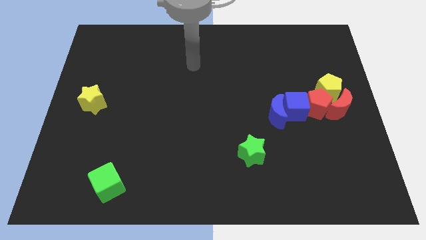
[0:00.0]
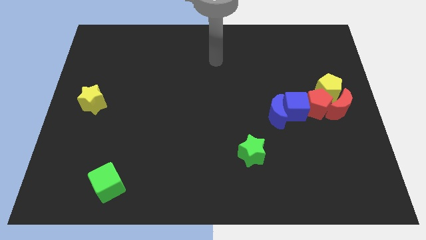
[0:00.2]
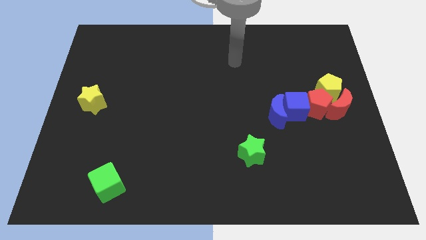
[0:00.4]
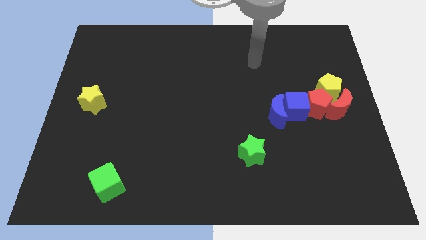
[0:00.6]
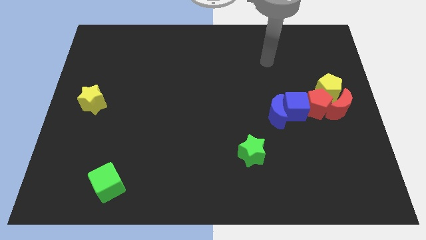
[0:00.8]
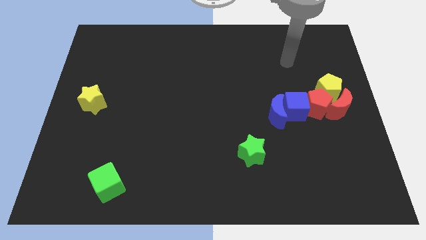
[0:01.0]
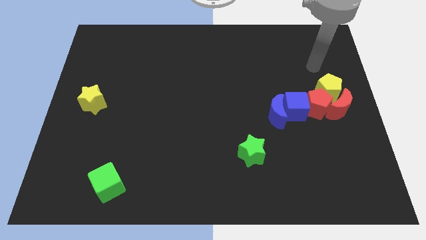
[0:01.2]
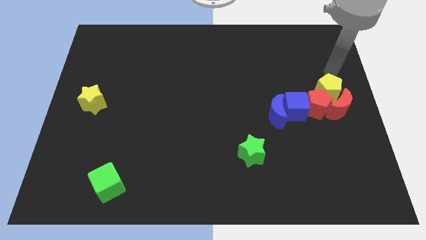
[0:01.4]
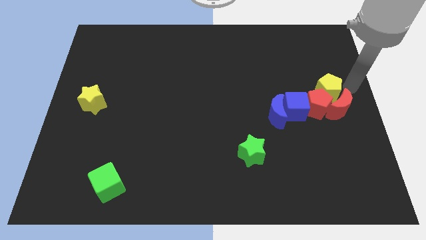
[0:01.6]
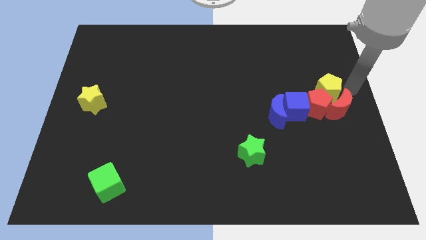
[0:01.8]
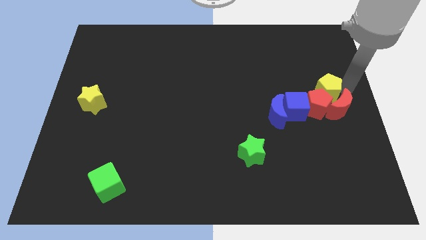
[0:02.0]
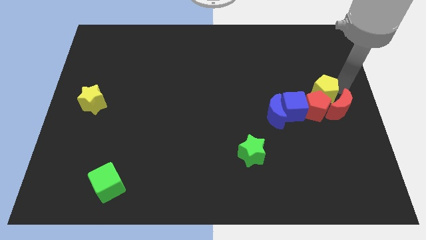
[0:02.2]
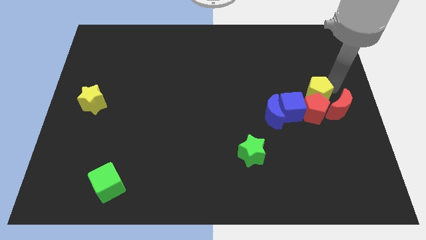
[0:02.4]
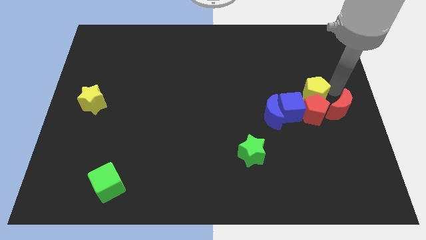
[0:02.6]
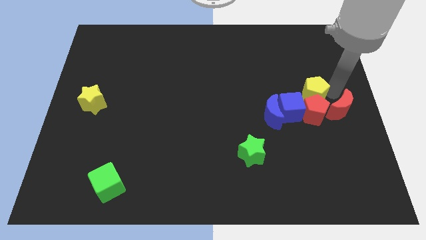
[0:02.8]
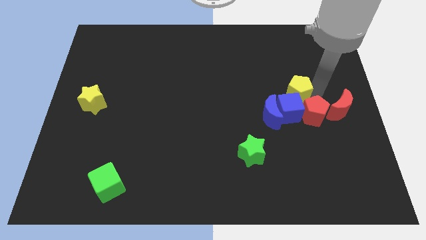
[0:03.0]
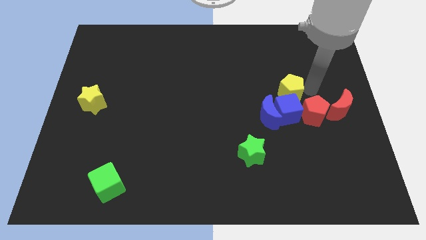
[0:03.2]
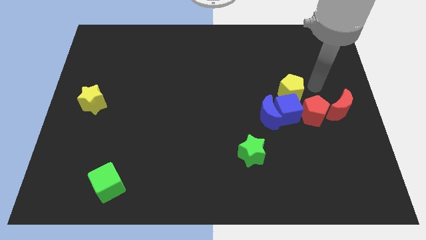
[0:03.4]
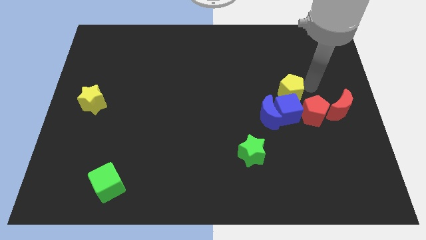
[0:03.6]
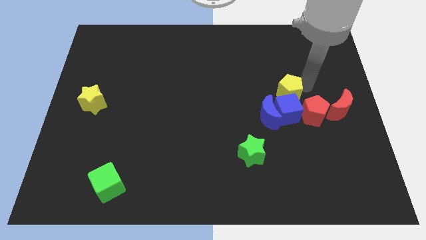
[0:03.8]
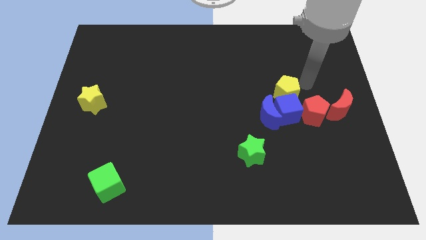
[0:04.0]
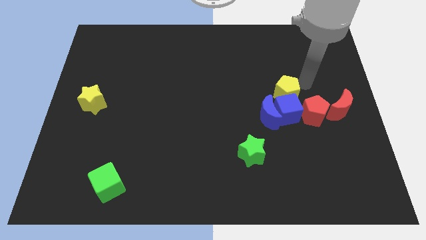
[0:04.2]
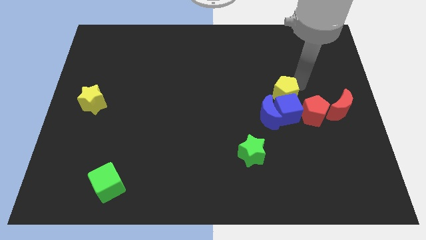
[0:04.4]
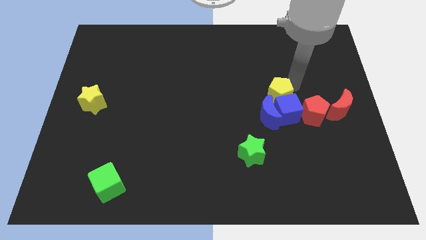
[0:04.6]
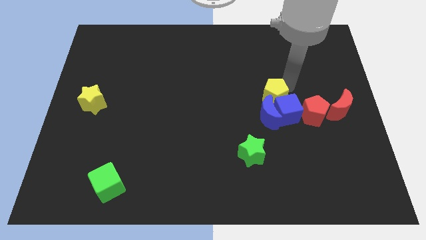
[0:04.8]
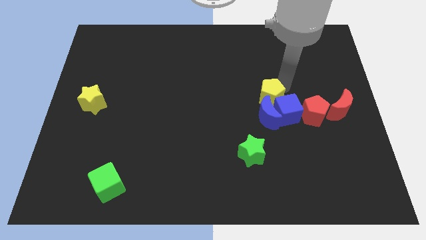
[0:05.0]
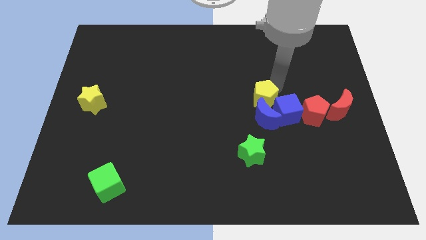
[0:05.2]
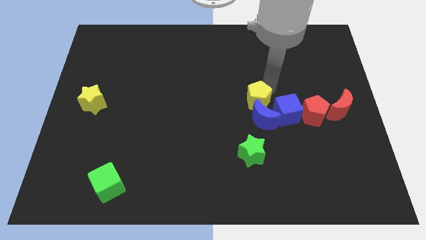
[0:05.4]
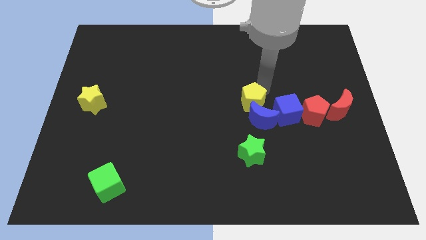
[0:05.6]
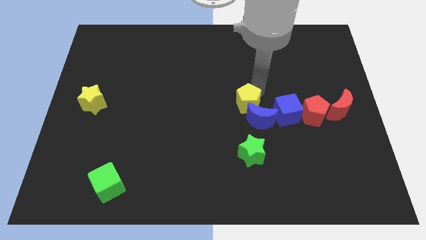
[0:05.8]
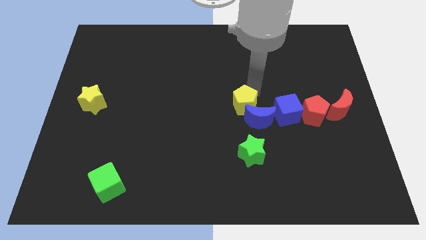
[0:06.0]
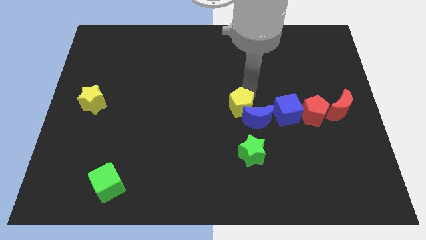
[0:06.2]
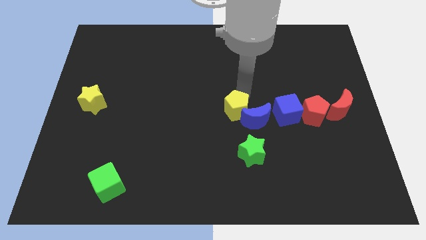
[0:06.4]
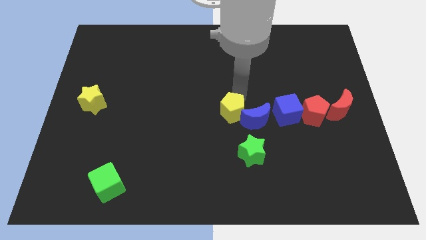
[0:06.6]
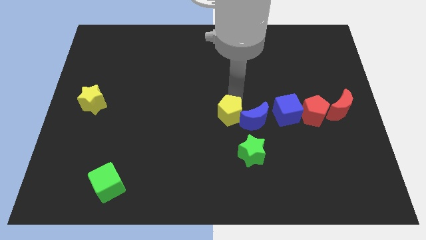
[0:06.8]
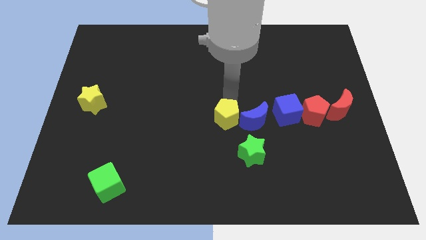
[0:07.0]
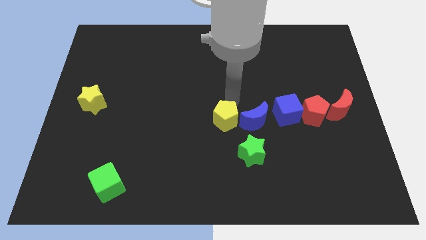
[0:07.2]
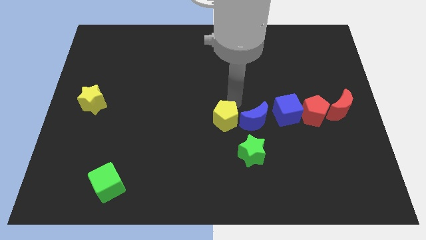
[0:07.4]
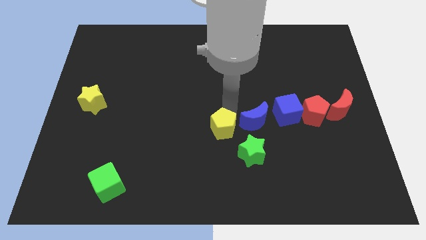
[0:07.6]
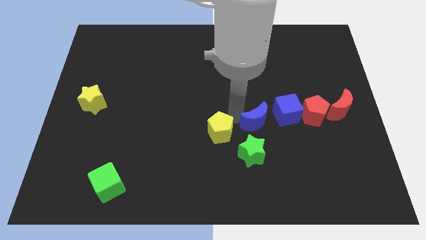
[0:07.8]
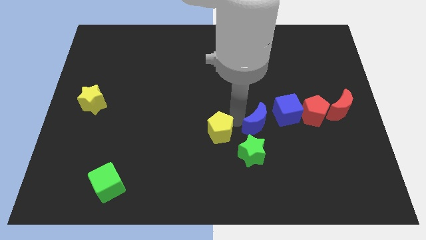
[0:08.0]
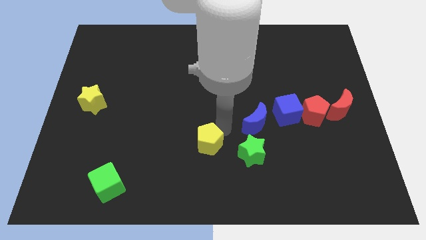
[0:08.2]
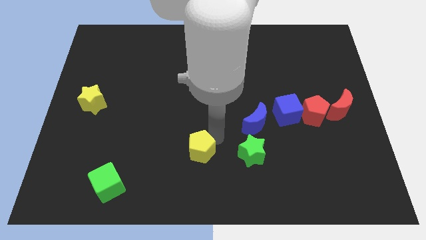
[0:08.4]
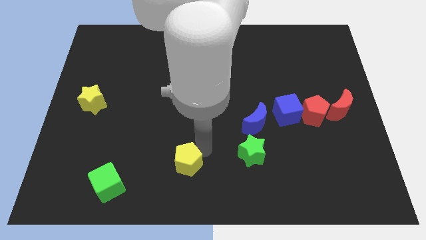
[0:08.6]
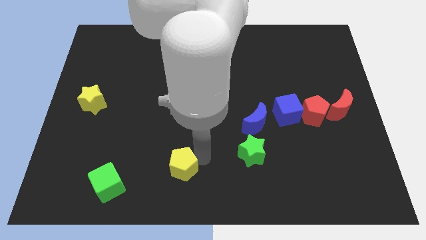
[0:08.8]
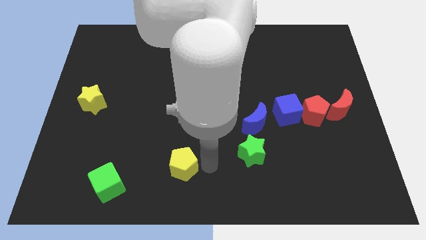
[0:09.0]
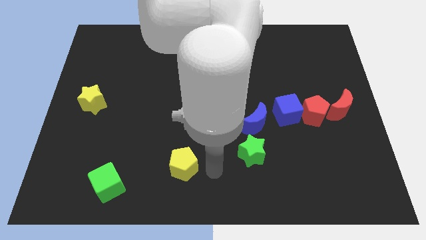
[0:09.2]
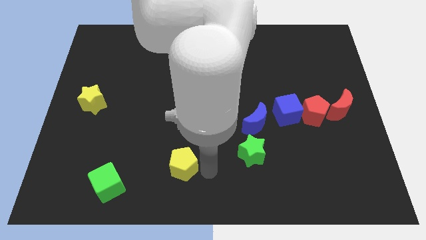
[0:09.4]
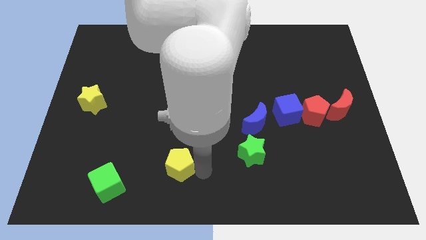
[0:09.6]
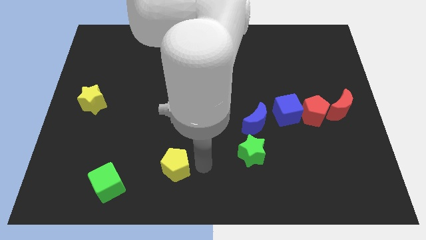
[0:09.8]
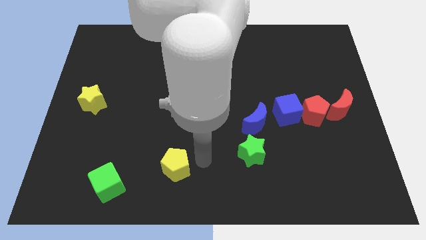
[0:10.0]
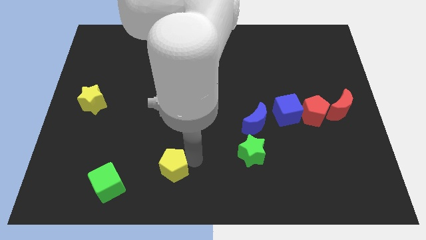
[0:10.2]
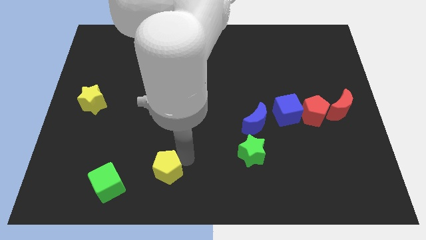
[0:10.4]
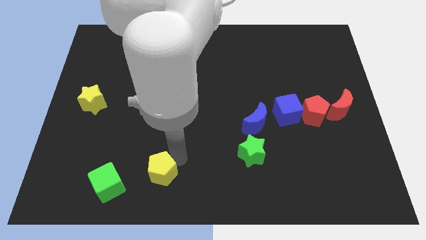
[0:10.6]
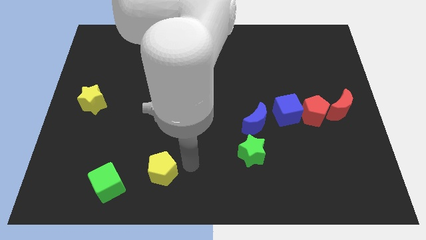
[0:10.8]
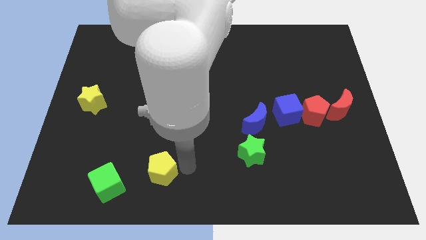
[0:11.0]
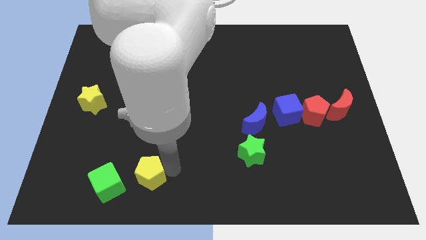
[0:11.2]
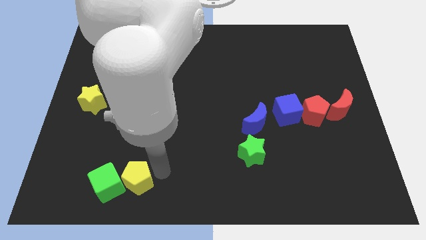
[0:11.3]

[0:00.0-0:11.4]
move the yellow pentagon next to the green cube

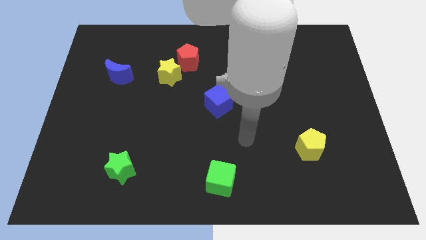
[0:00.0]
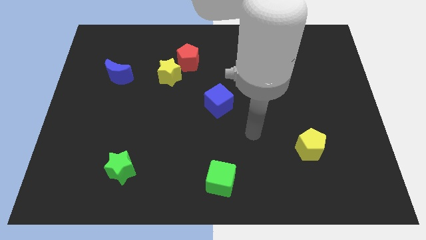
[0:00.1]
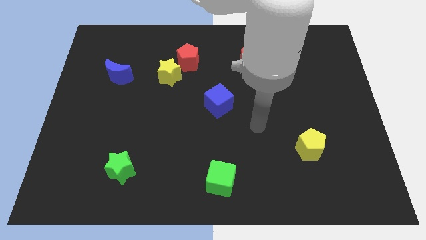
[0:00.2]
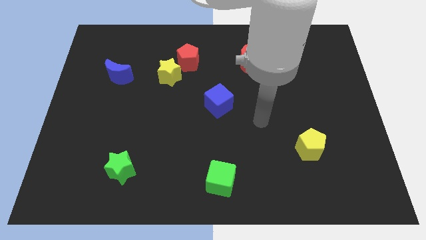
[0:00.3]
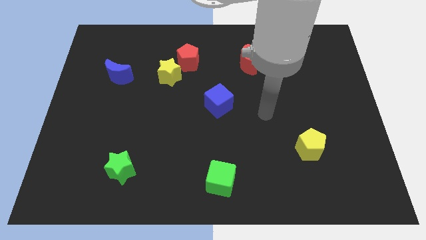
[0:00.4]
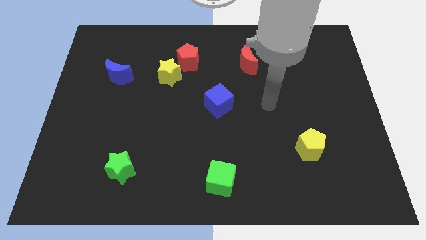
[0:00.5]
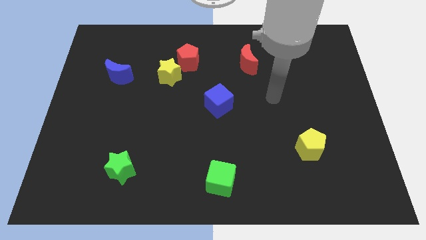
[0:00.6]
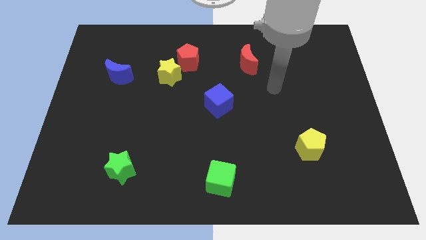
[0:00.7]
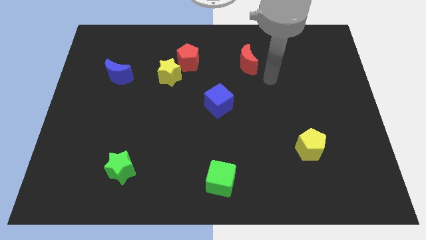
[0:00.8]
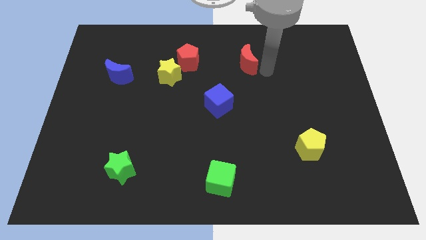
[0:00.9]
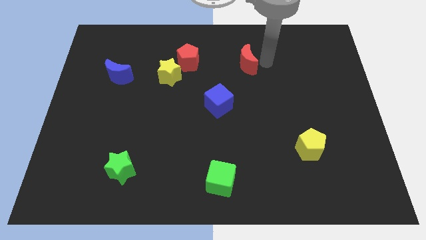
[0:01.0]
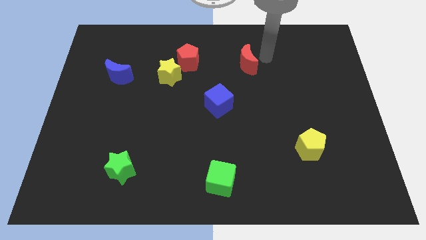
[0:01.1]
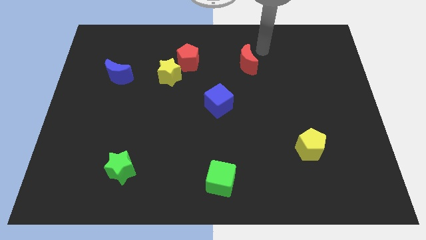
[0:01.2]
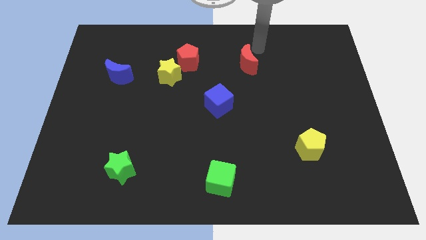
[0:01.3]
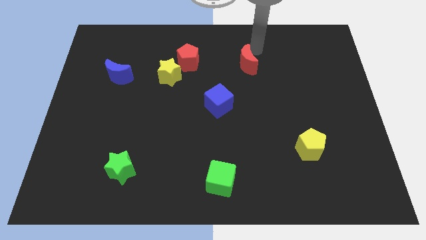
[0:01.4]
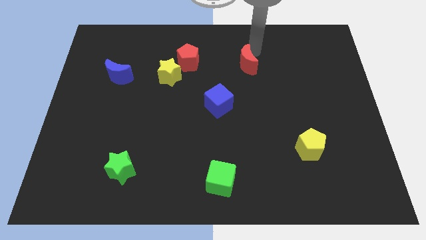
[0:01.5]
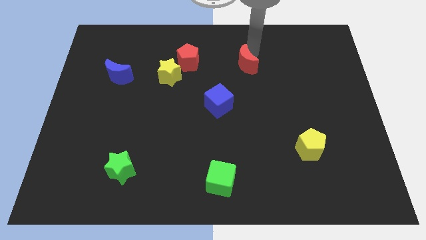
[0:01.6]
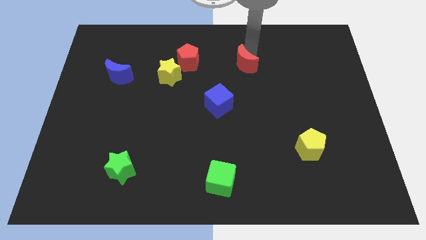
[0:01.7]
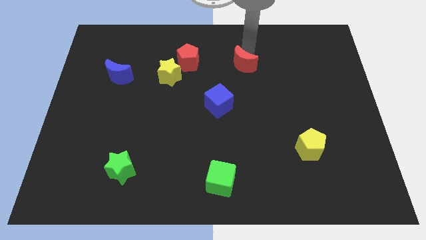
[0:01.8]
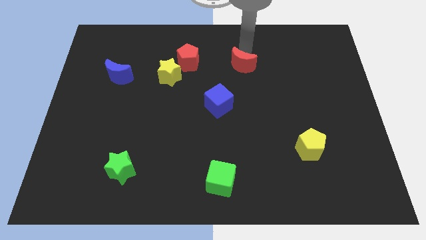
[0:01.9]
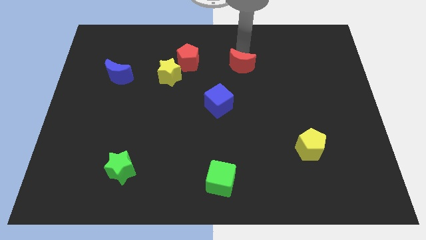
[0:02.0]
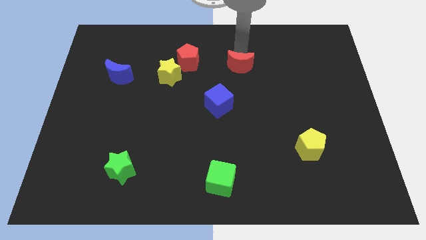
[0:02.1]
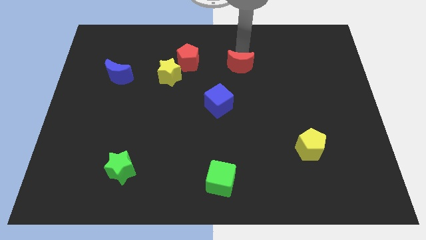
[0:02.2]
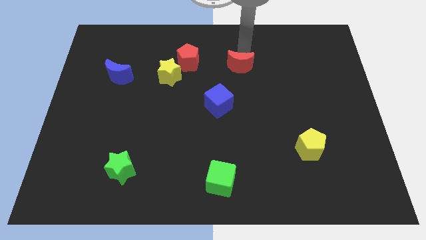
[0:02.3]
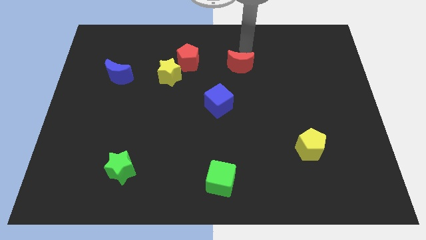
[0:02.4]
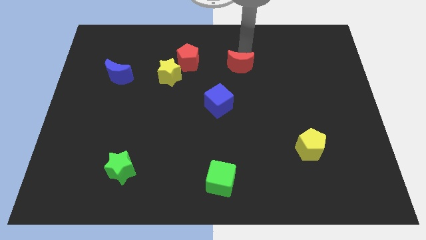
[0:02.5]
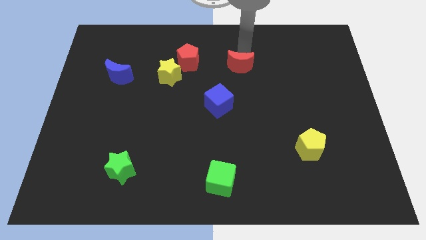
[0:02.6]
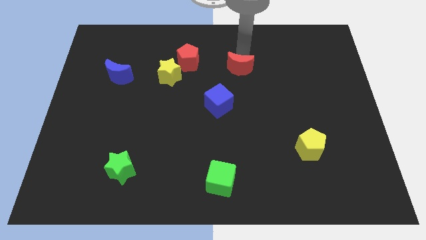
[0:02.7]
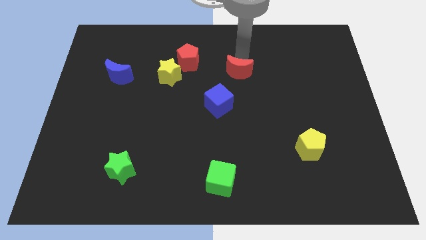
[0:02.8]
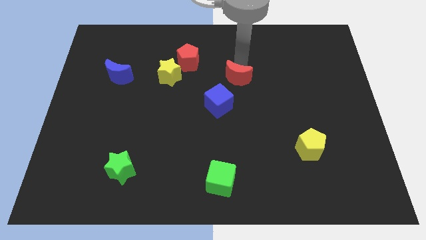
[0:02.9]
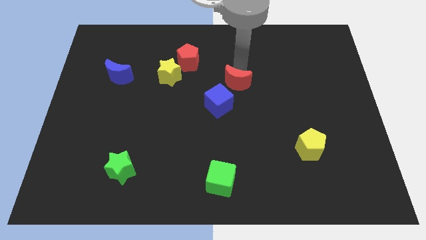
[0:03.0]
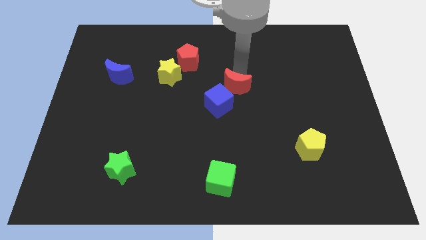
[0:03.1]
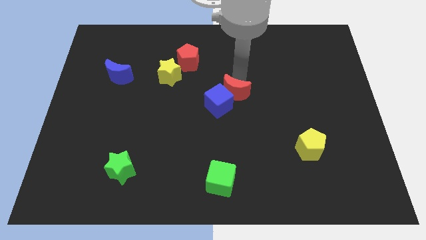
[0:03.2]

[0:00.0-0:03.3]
push the red moon towards the blue cube
